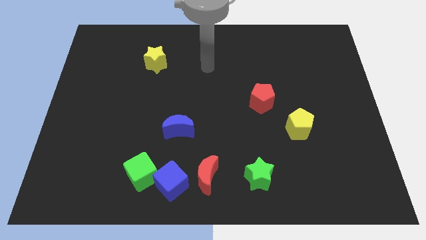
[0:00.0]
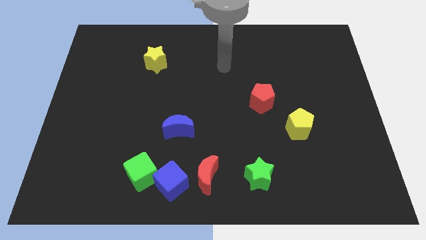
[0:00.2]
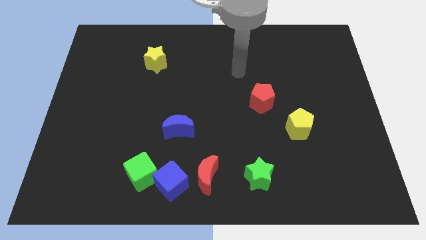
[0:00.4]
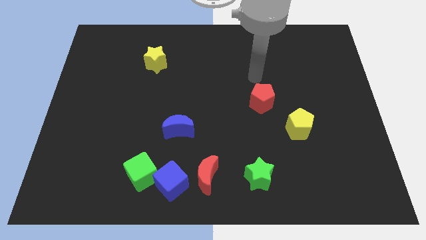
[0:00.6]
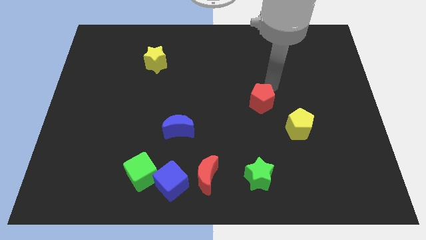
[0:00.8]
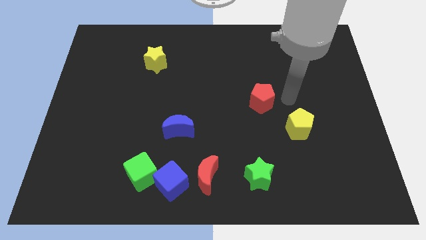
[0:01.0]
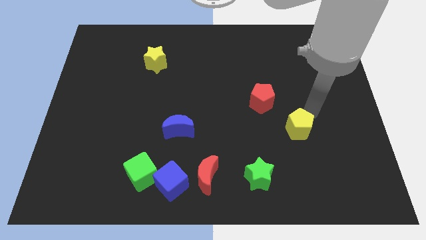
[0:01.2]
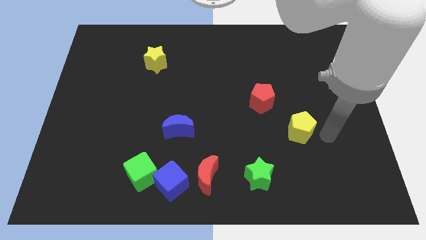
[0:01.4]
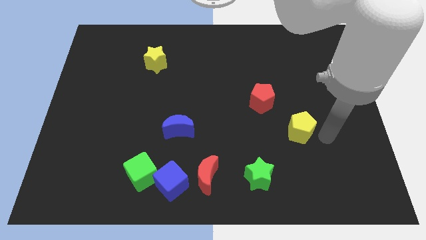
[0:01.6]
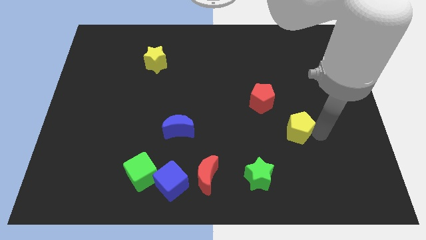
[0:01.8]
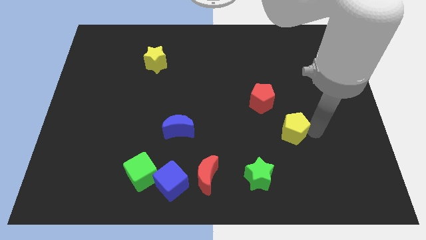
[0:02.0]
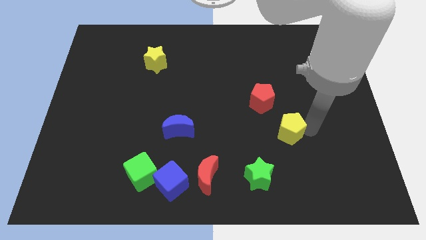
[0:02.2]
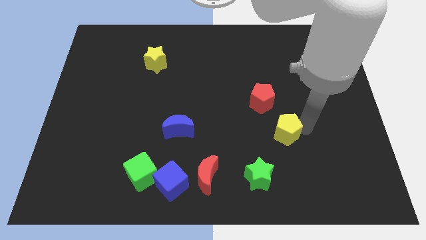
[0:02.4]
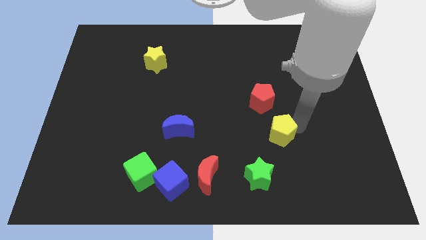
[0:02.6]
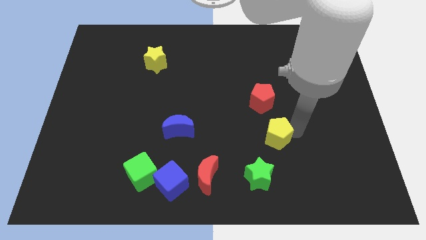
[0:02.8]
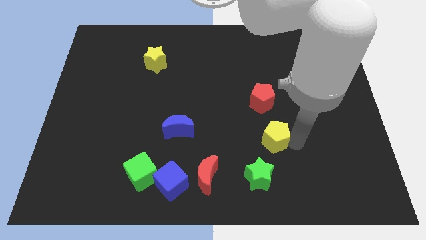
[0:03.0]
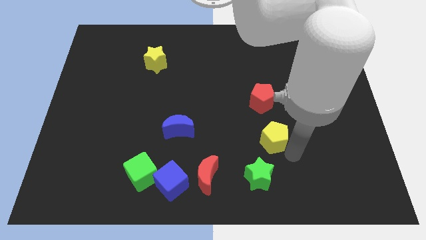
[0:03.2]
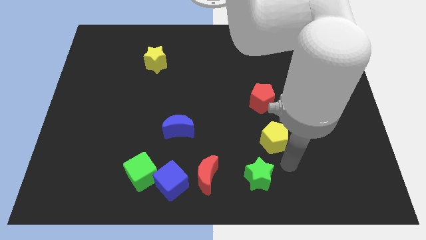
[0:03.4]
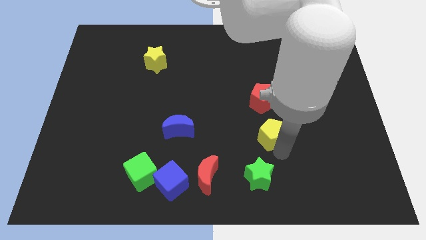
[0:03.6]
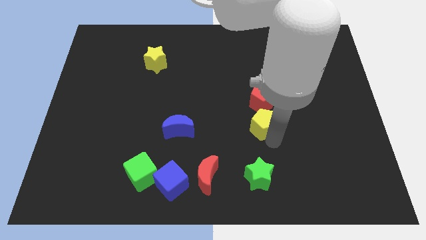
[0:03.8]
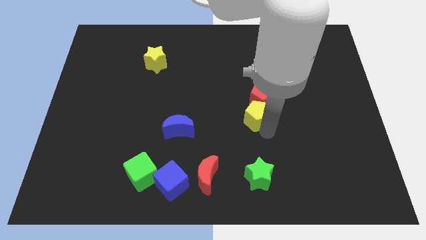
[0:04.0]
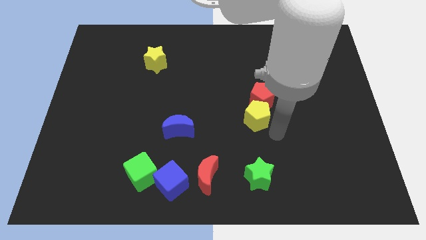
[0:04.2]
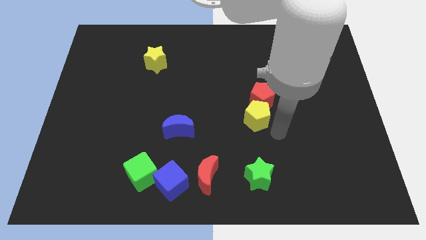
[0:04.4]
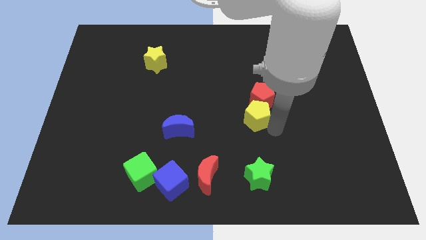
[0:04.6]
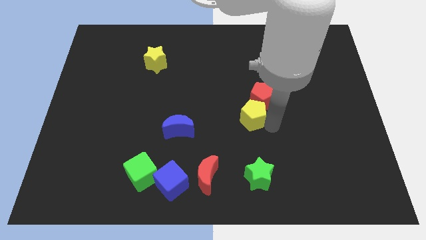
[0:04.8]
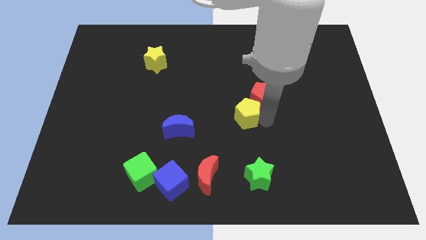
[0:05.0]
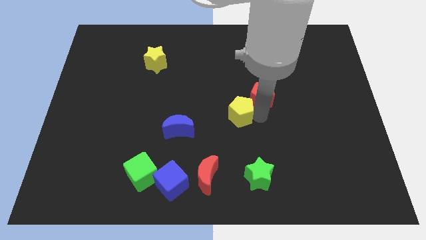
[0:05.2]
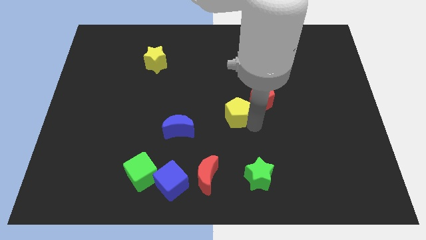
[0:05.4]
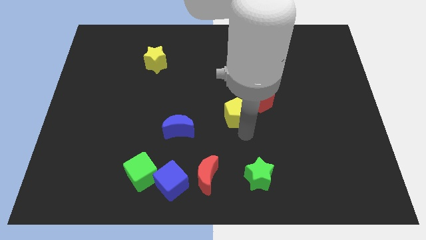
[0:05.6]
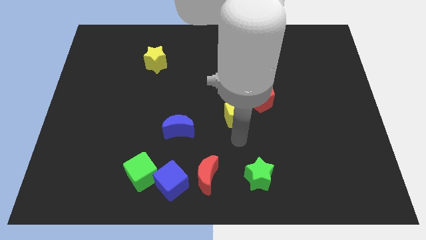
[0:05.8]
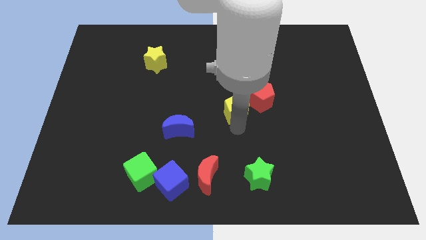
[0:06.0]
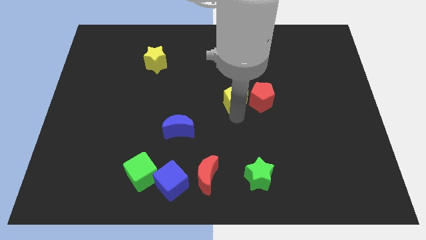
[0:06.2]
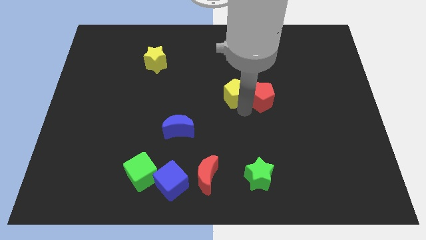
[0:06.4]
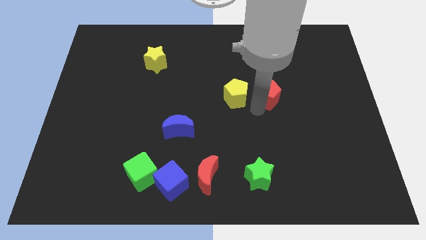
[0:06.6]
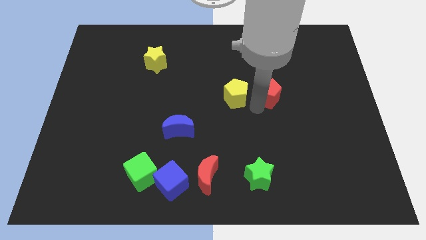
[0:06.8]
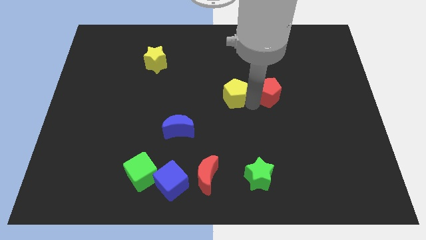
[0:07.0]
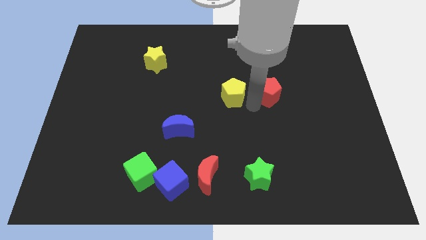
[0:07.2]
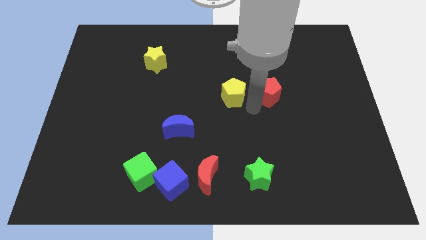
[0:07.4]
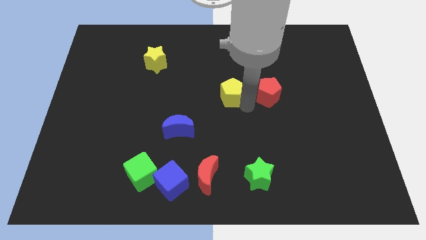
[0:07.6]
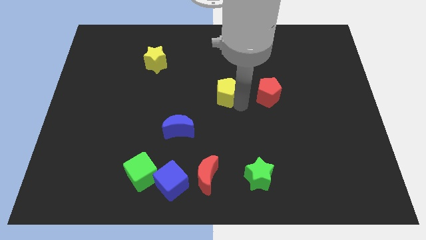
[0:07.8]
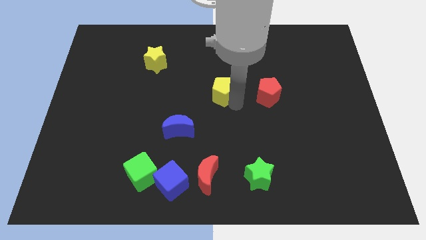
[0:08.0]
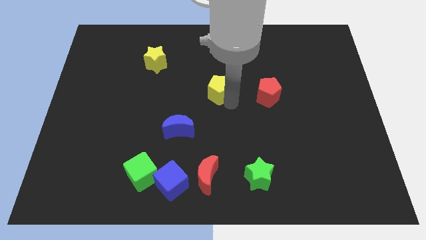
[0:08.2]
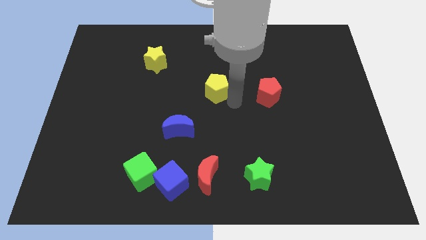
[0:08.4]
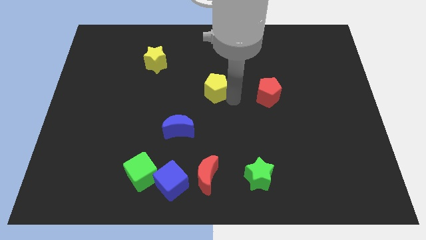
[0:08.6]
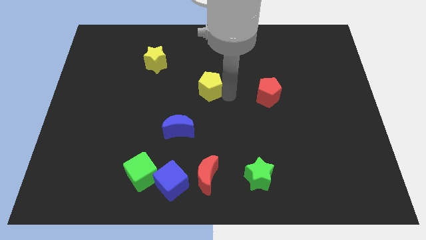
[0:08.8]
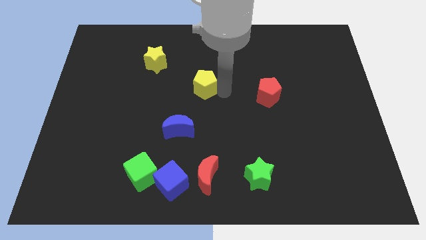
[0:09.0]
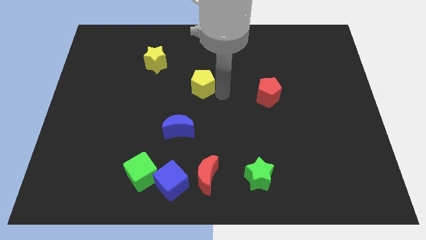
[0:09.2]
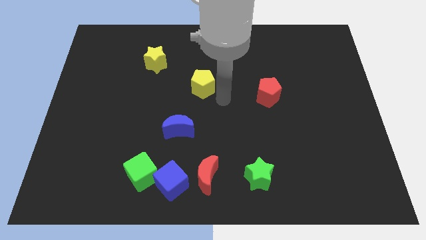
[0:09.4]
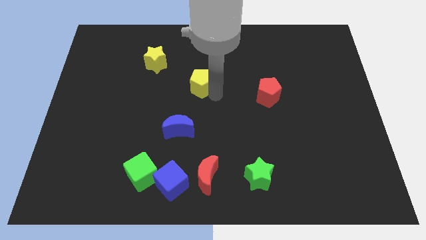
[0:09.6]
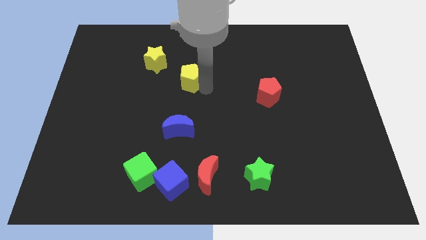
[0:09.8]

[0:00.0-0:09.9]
push the yellow pentagon to the bottom right of the yellow star

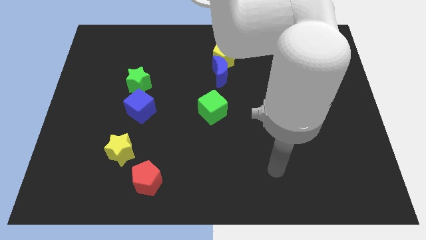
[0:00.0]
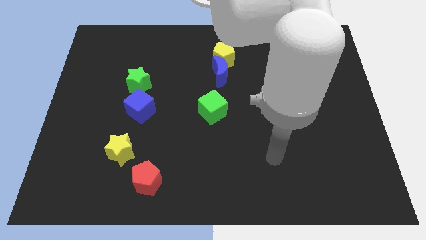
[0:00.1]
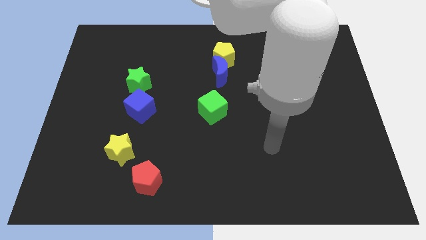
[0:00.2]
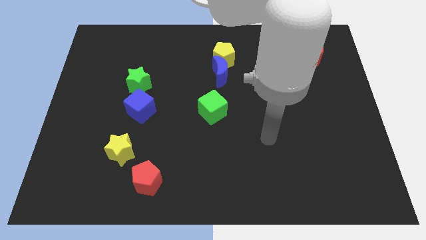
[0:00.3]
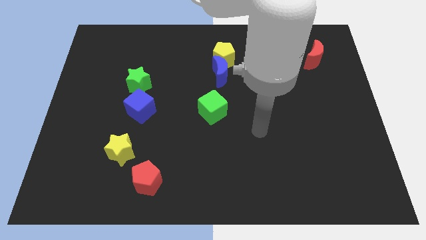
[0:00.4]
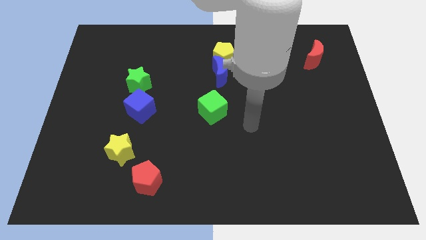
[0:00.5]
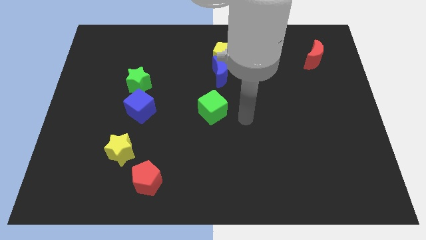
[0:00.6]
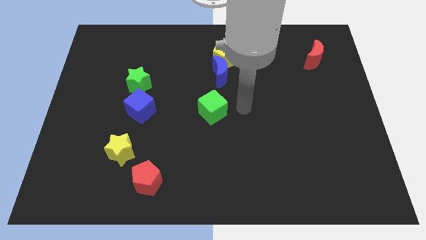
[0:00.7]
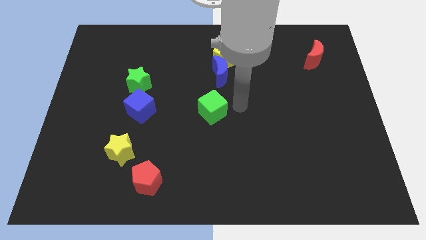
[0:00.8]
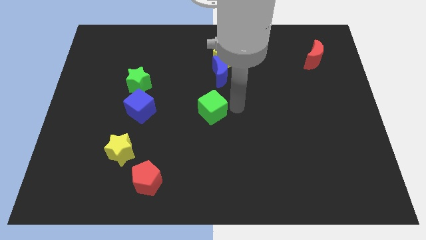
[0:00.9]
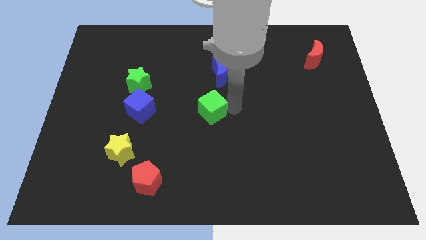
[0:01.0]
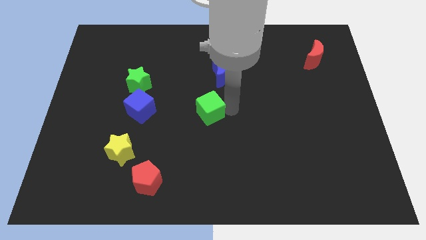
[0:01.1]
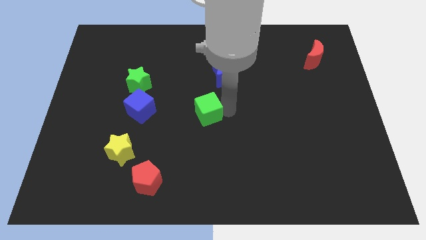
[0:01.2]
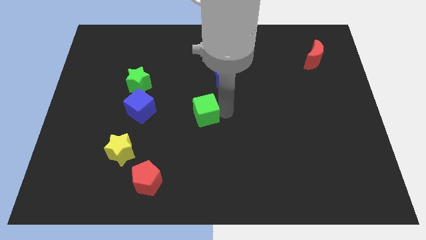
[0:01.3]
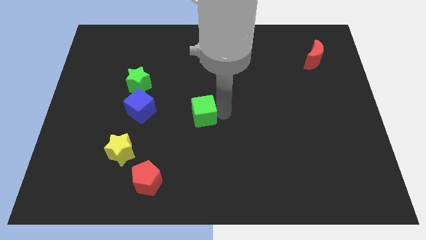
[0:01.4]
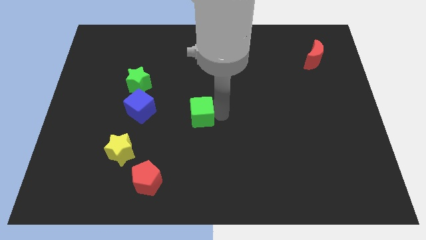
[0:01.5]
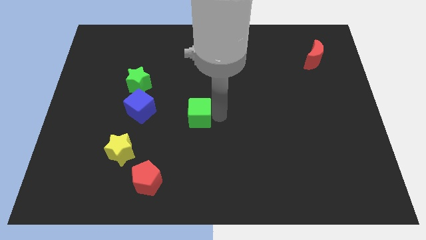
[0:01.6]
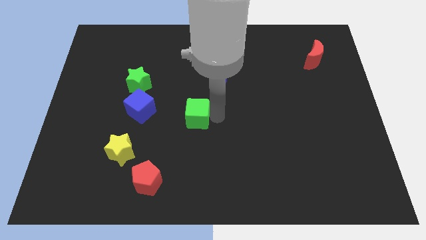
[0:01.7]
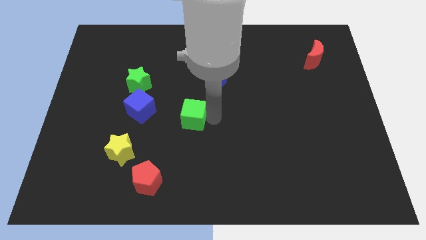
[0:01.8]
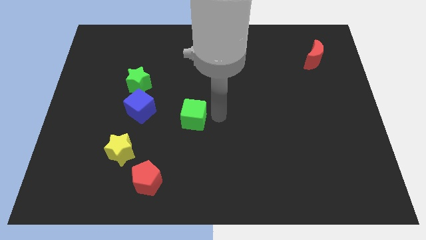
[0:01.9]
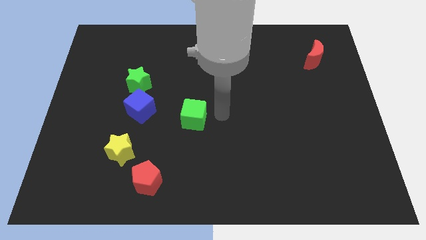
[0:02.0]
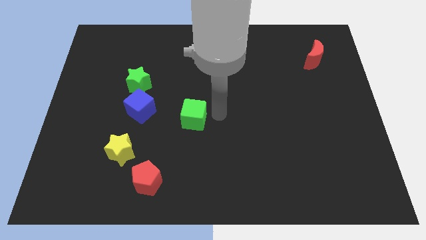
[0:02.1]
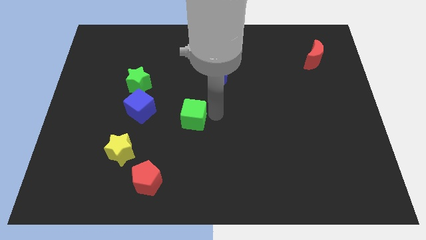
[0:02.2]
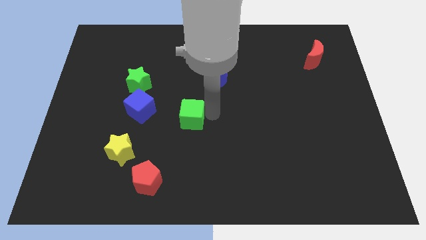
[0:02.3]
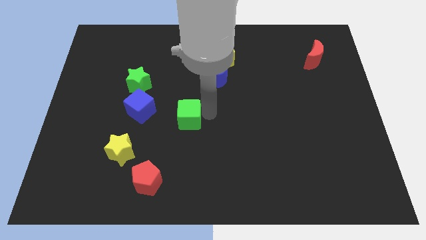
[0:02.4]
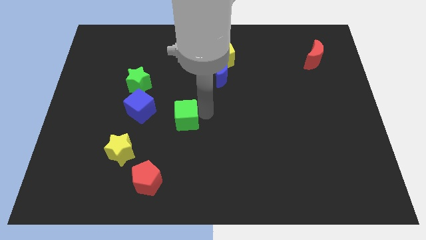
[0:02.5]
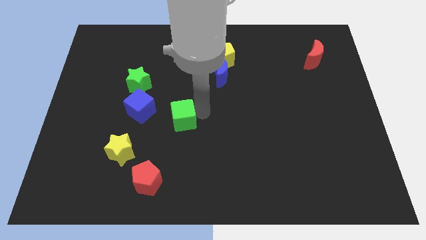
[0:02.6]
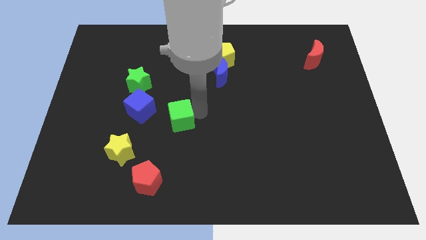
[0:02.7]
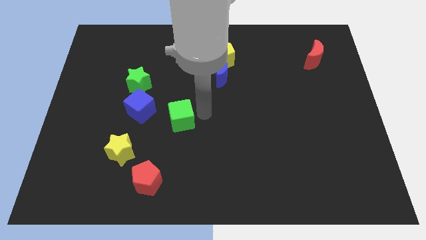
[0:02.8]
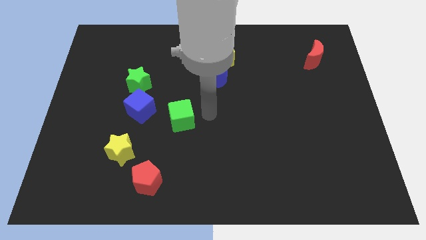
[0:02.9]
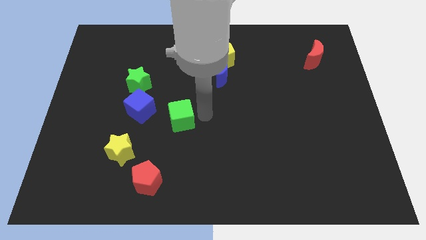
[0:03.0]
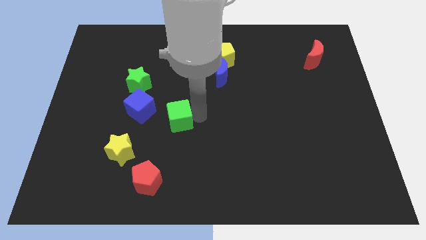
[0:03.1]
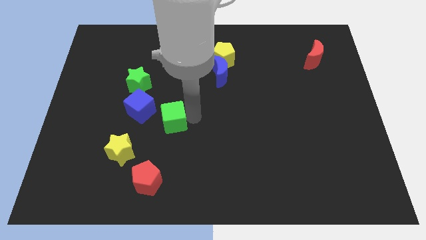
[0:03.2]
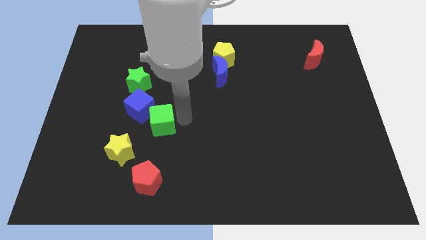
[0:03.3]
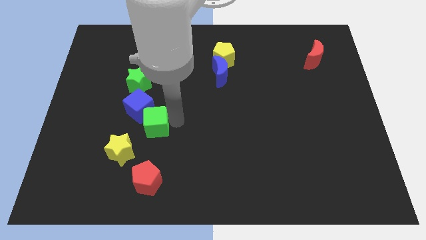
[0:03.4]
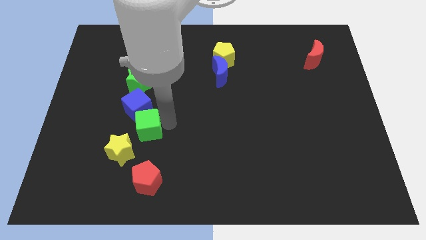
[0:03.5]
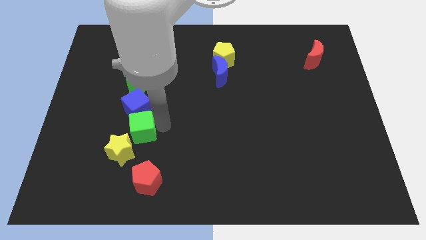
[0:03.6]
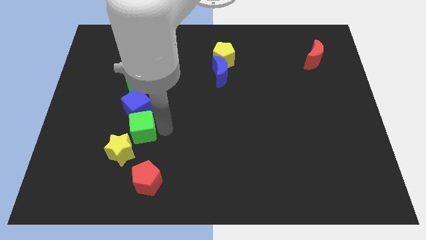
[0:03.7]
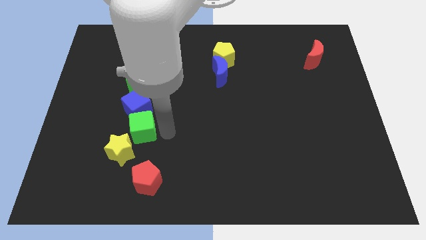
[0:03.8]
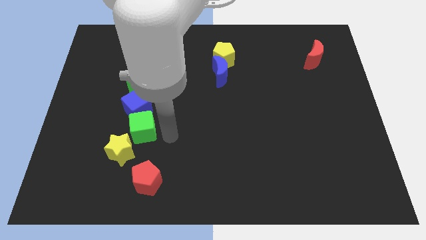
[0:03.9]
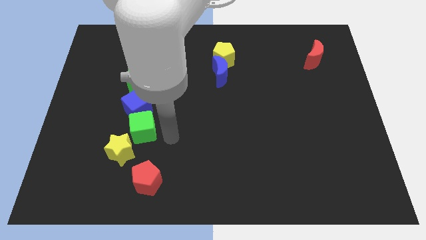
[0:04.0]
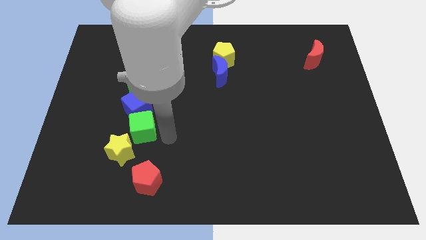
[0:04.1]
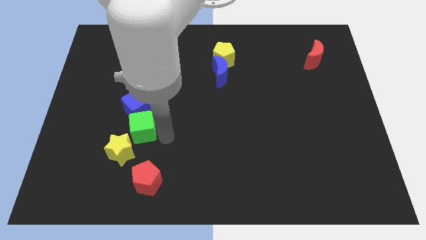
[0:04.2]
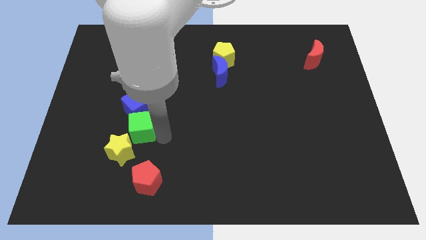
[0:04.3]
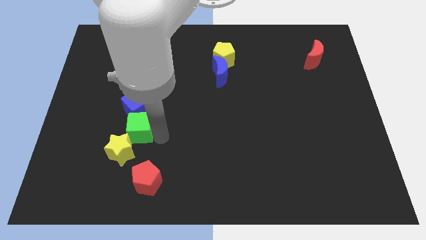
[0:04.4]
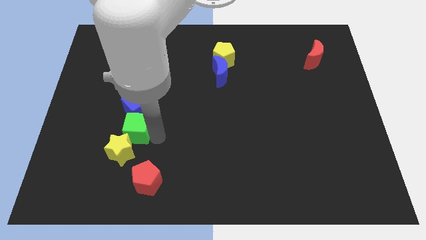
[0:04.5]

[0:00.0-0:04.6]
push the green cube to the bottom left side of the blue cube
